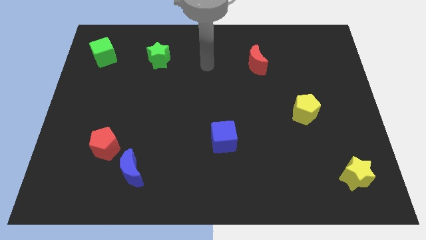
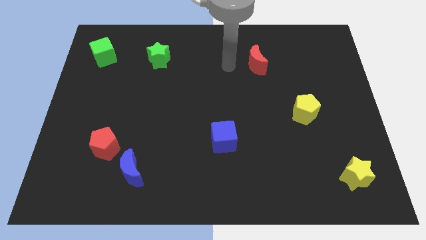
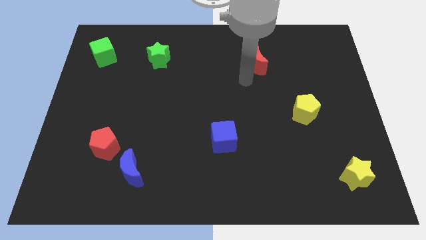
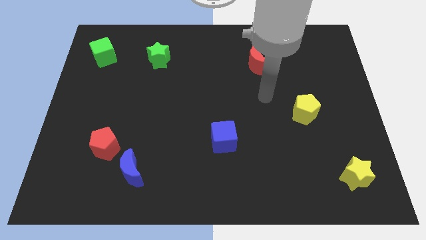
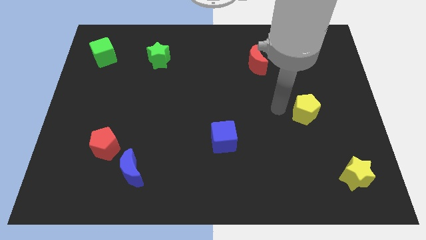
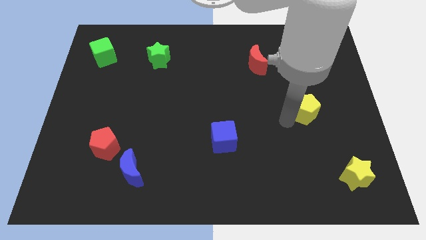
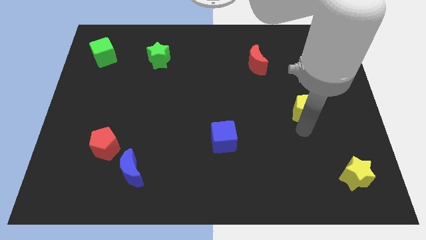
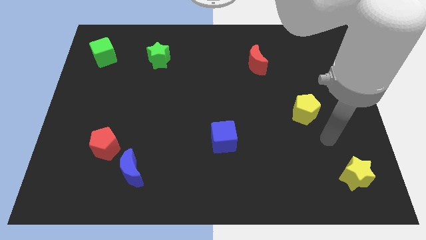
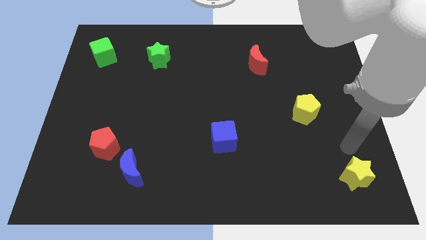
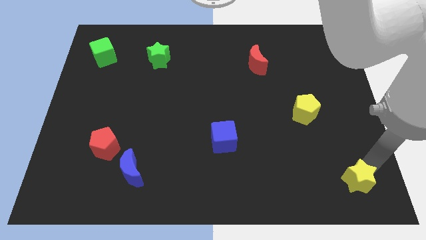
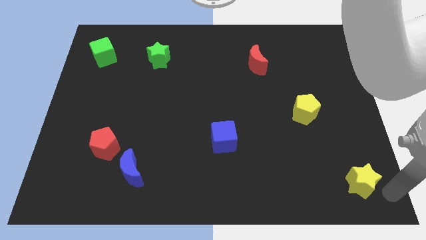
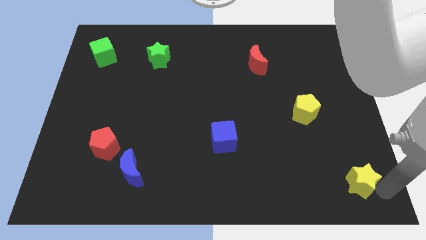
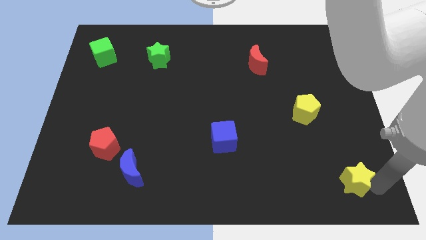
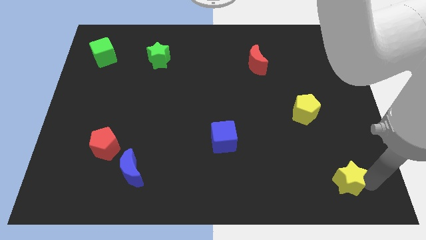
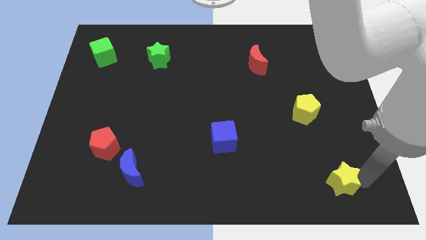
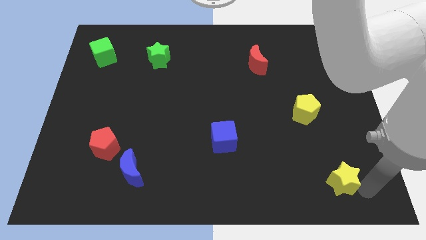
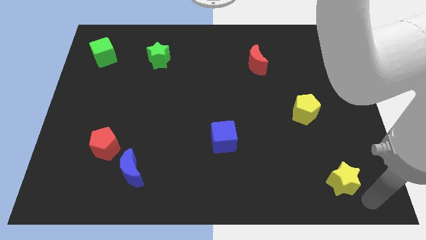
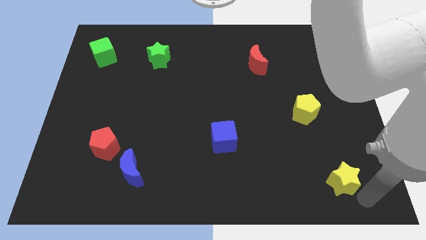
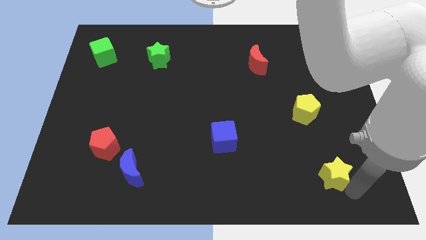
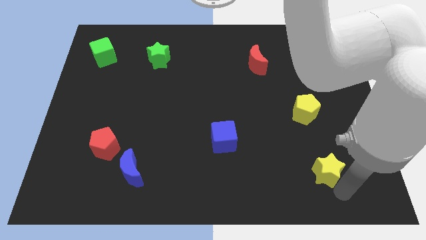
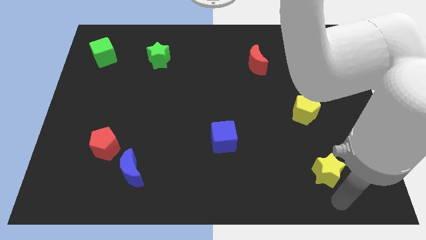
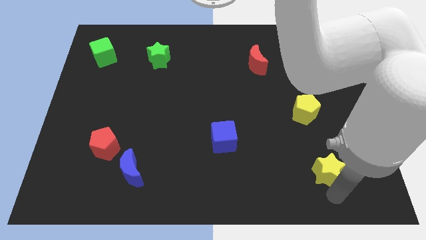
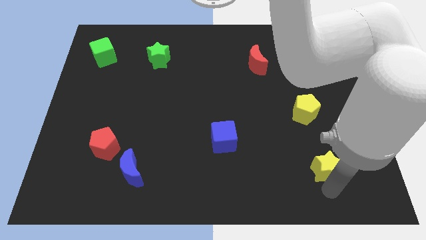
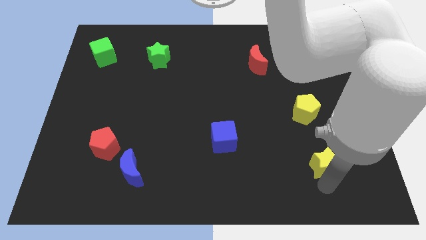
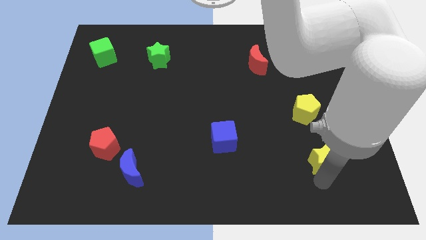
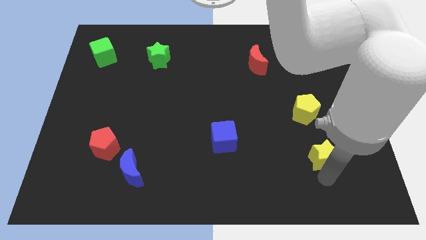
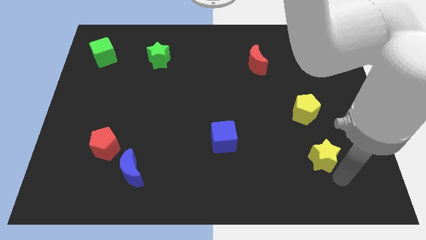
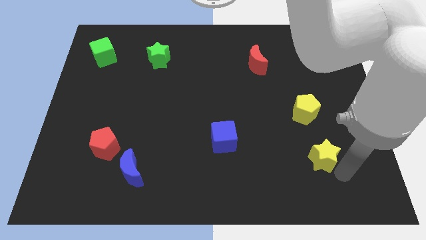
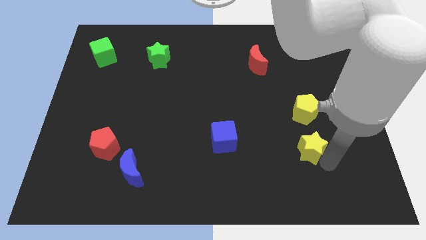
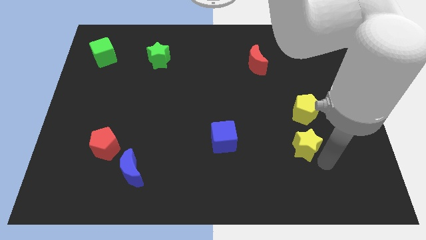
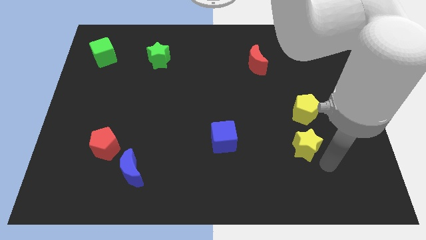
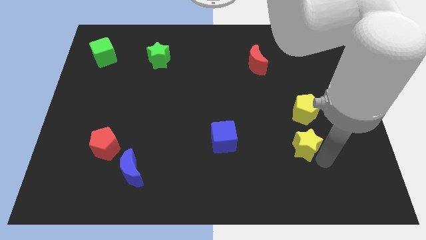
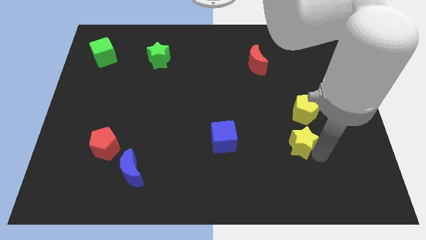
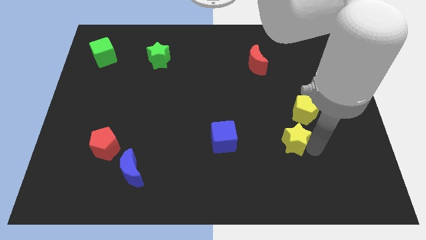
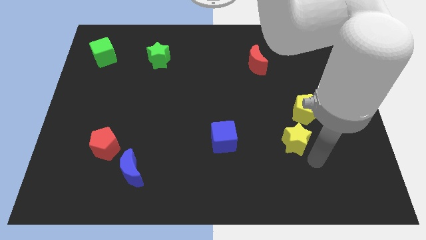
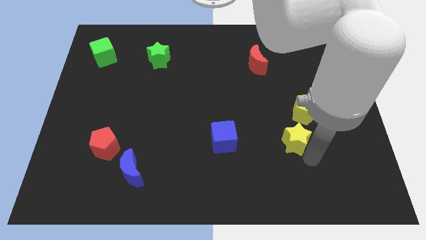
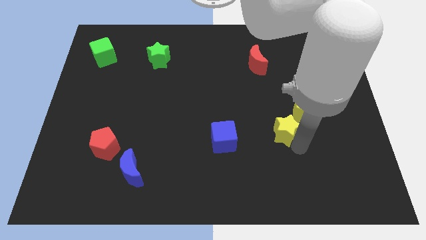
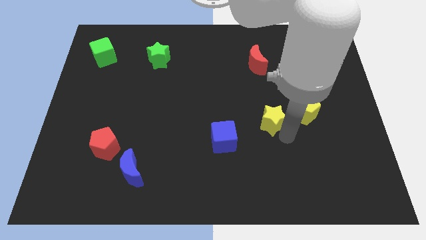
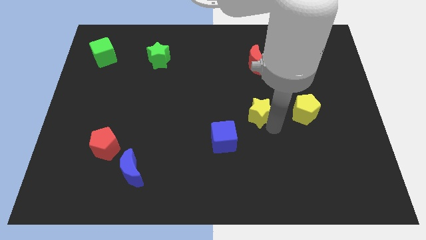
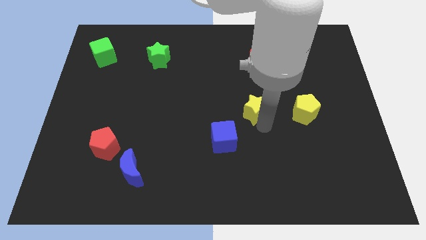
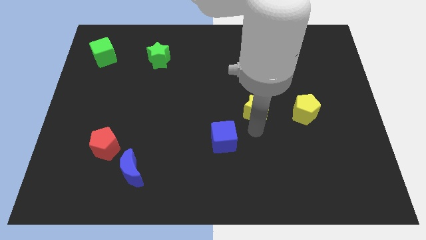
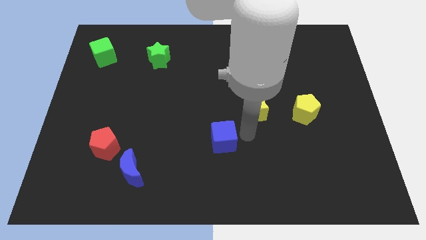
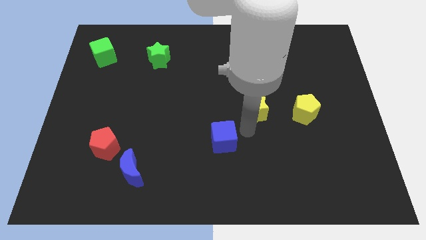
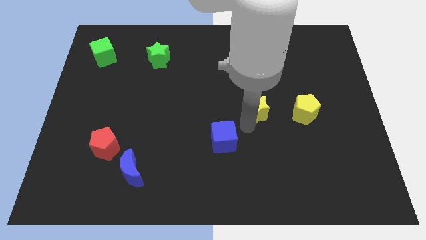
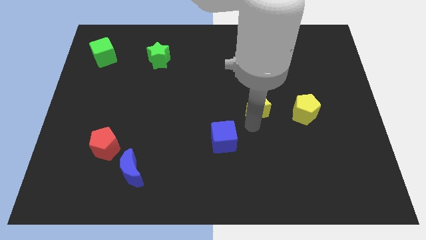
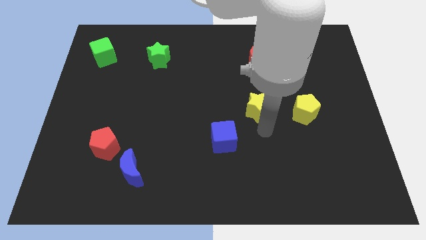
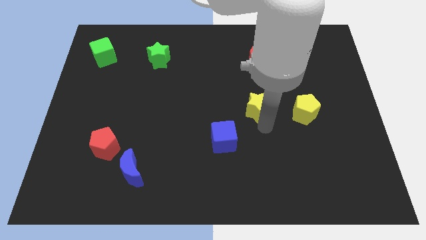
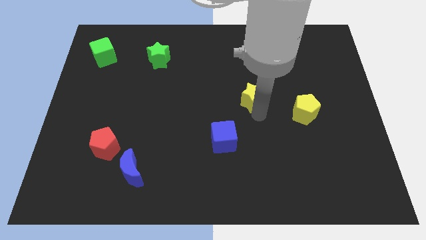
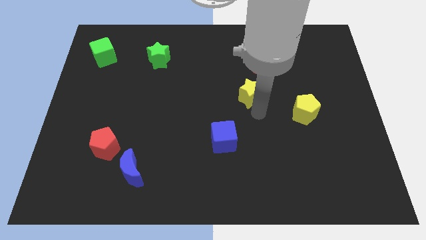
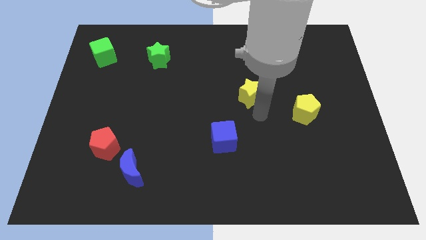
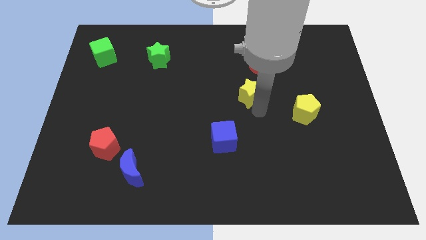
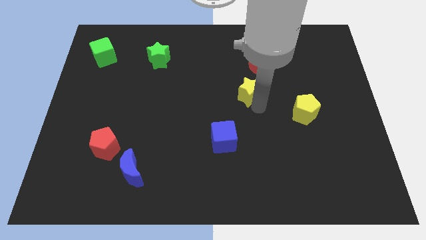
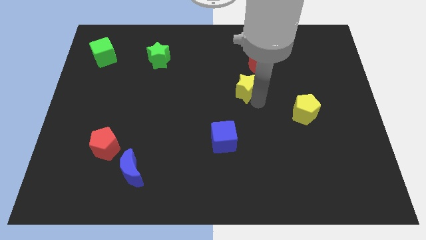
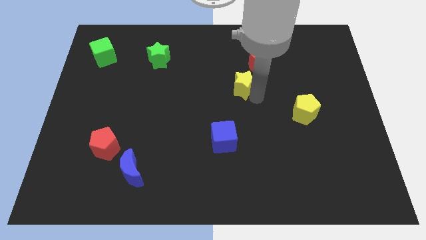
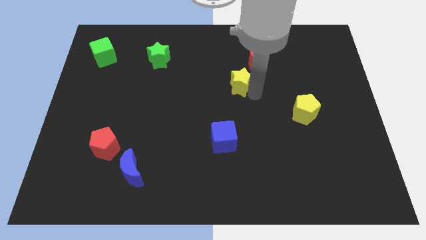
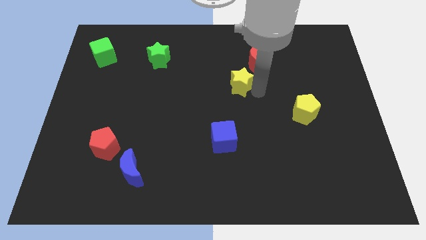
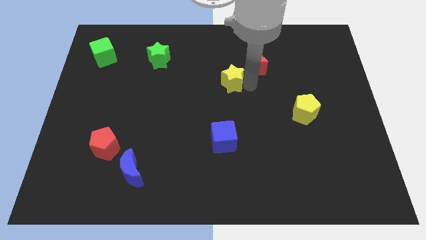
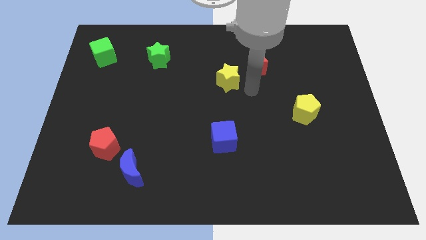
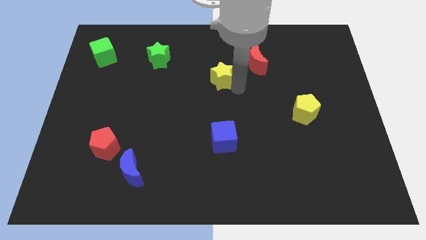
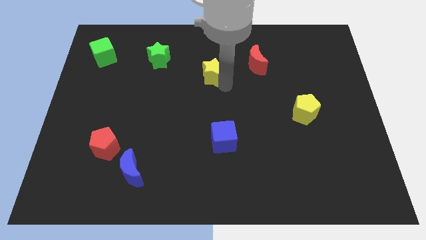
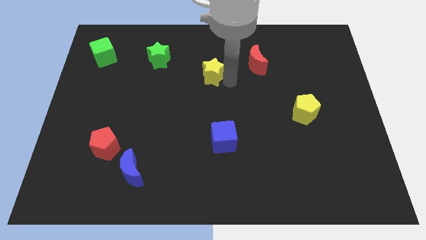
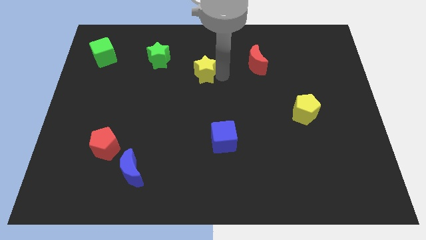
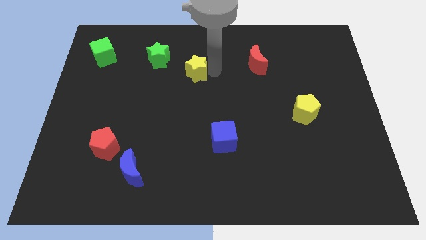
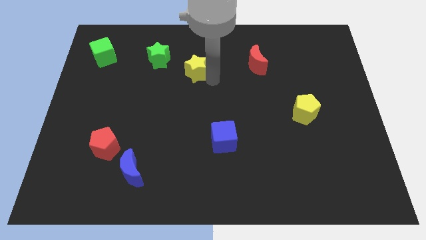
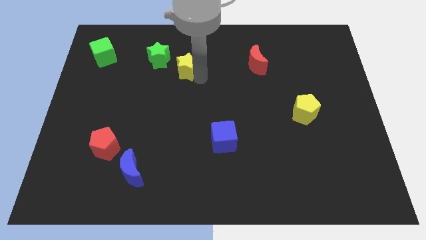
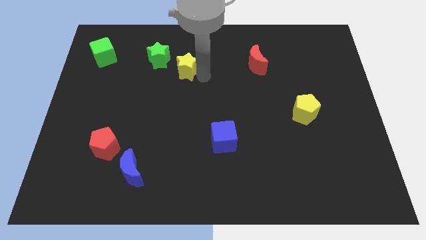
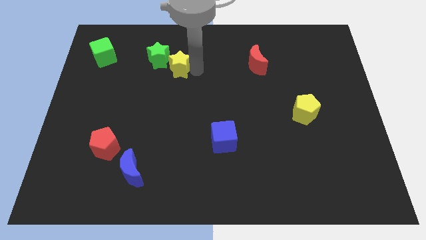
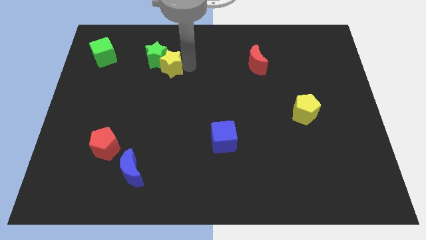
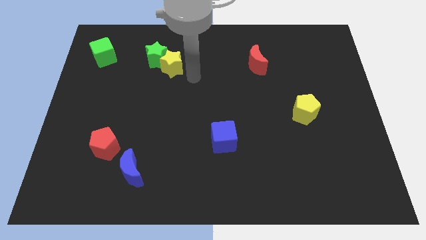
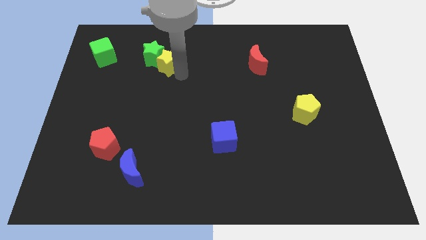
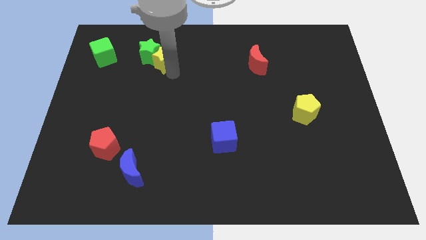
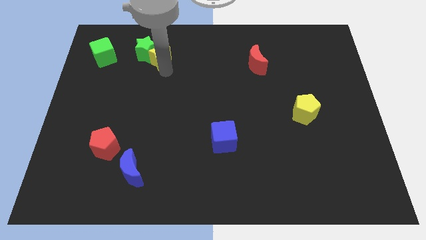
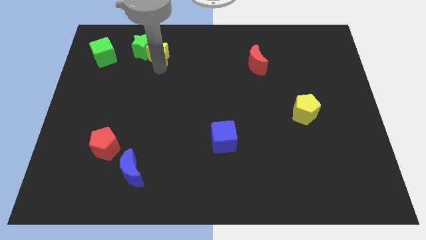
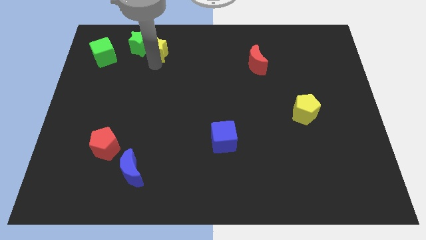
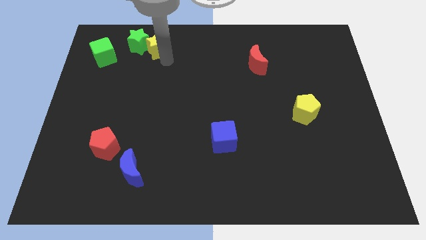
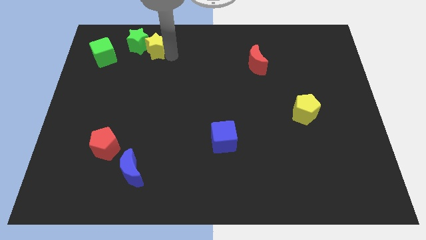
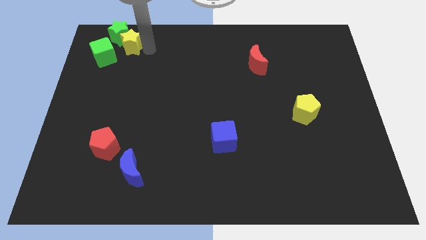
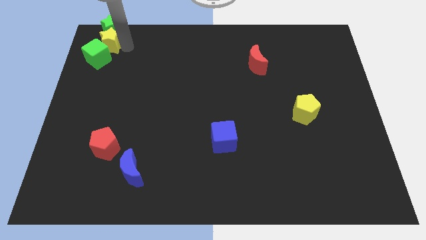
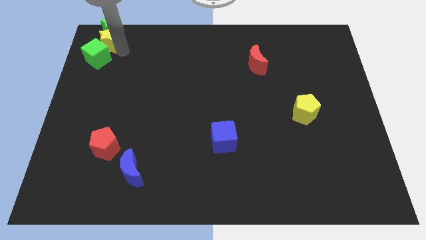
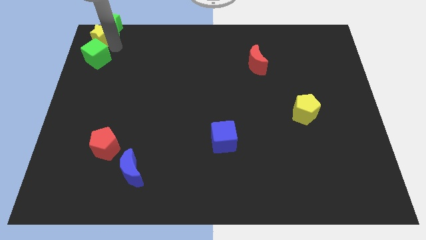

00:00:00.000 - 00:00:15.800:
slide the yellow star to the top left
